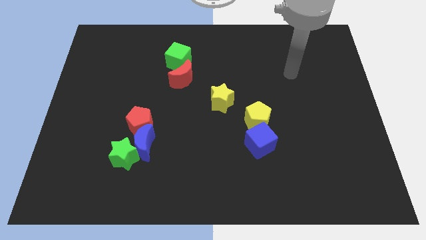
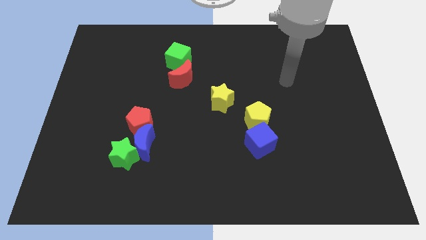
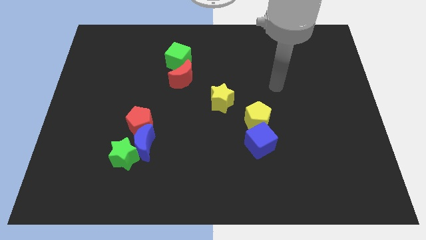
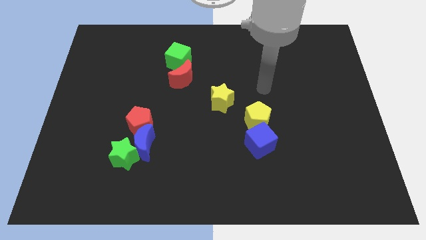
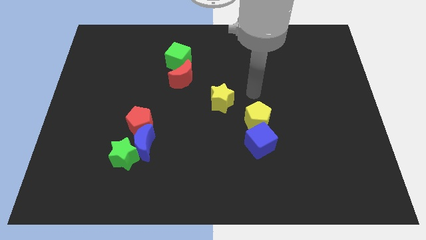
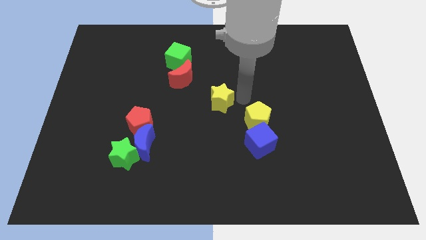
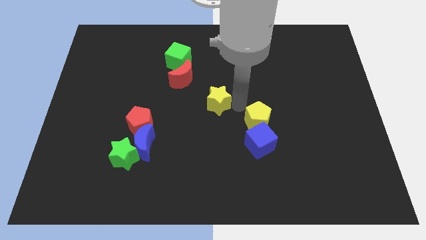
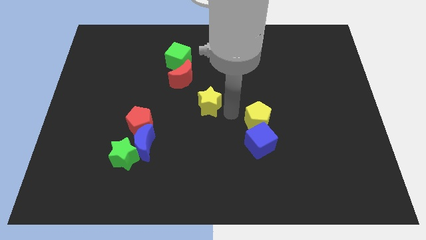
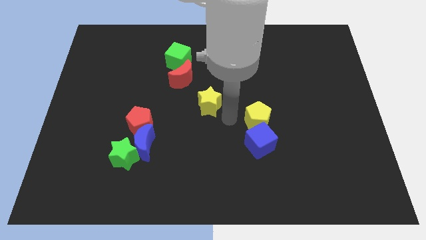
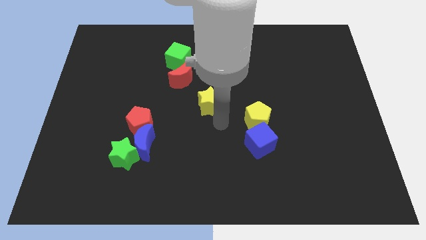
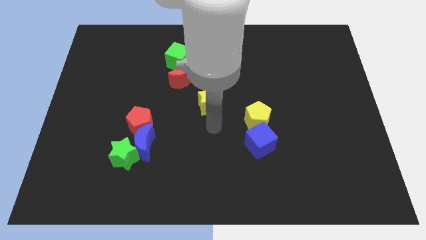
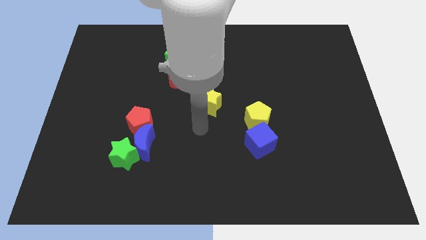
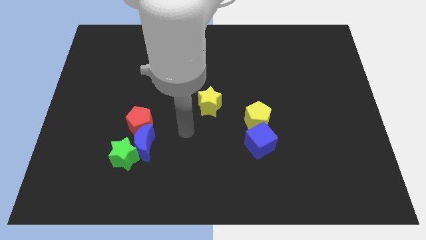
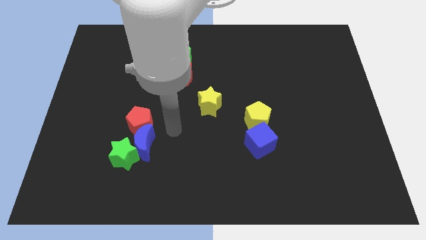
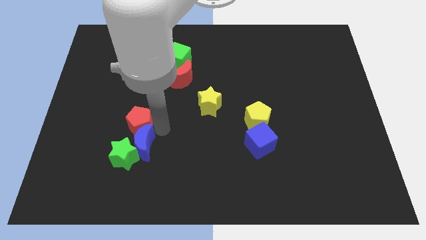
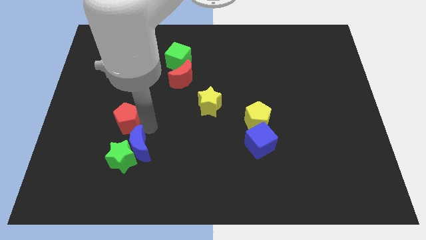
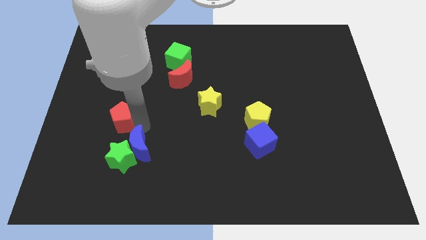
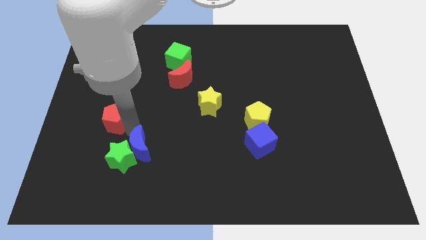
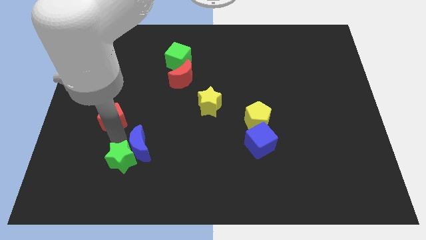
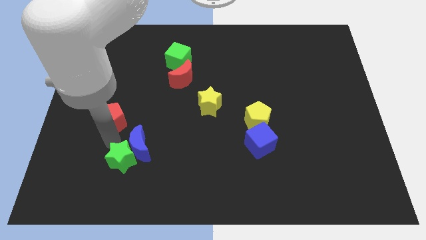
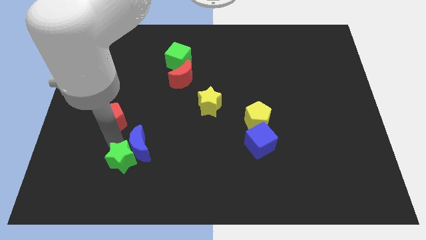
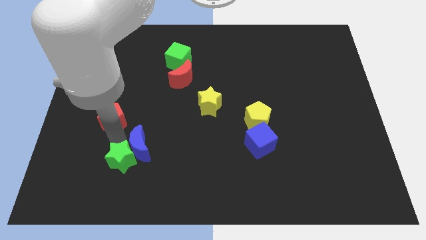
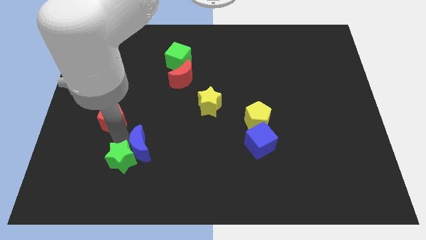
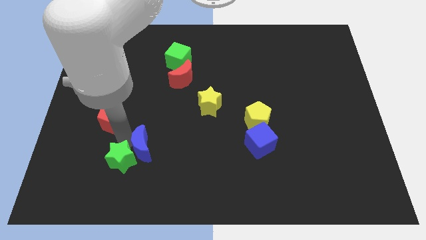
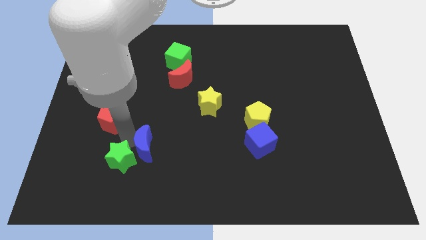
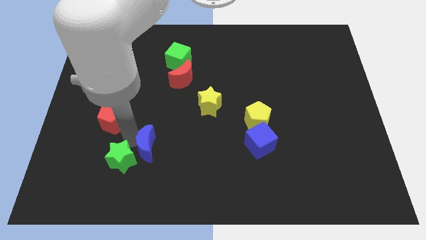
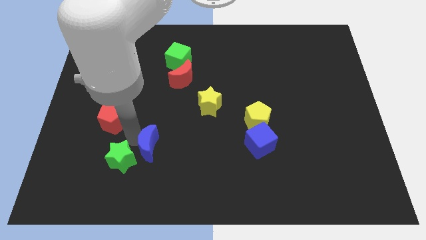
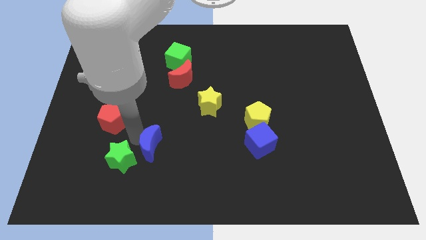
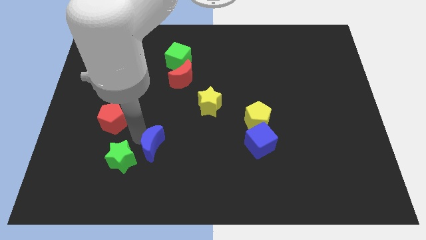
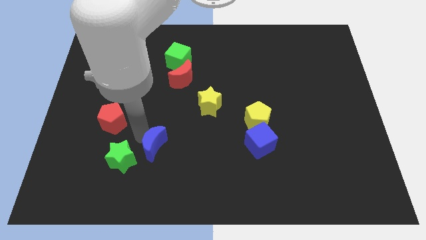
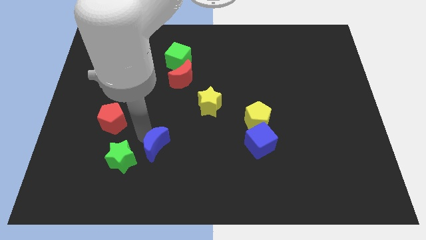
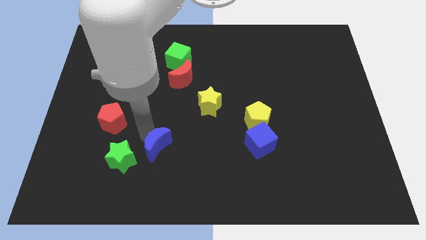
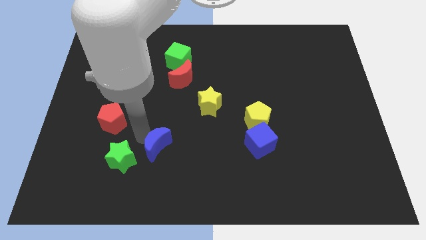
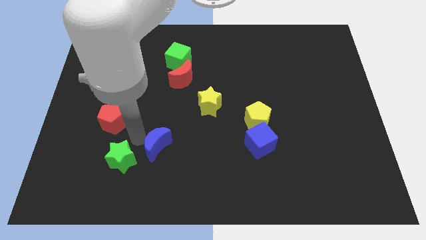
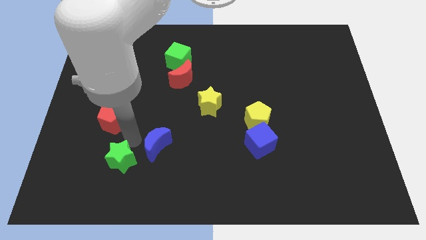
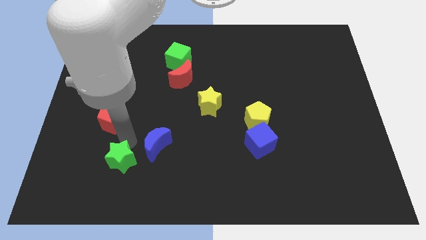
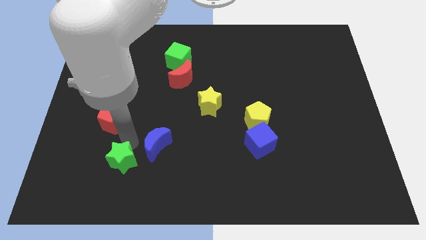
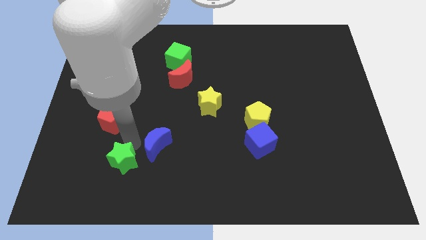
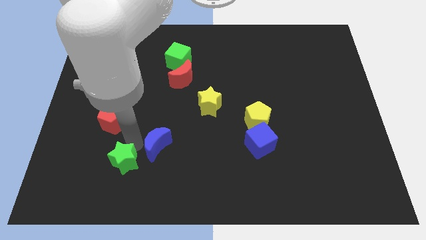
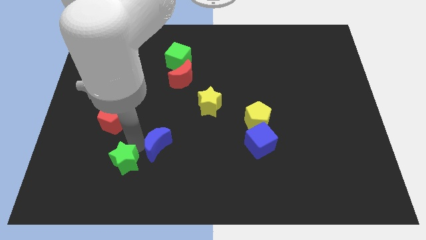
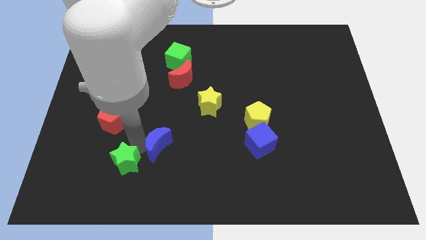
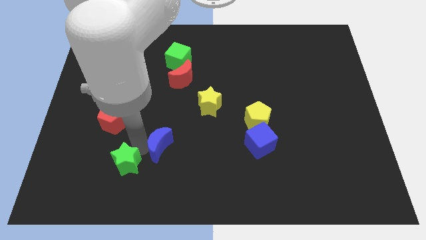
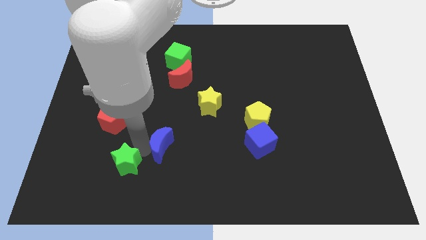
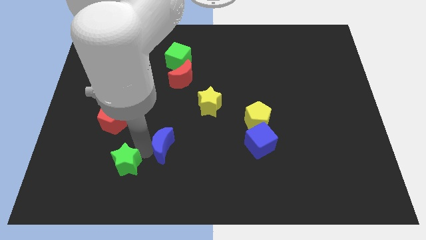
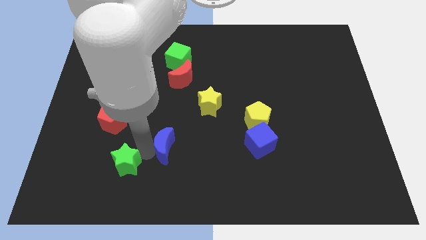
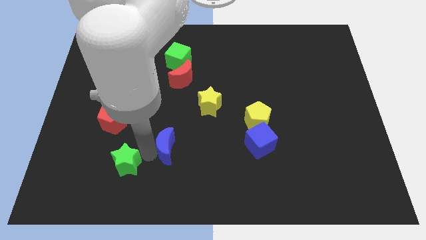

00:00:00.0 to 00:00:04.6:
separate the blue moon from the green star and red pentagon

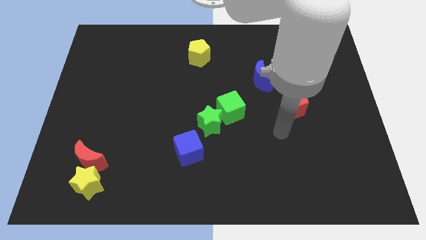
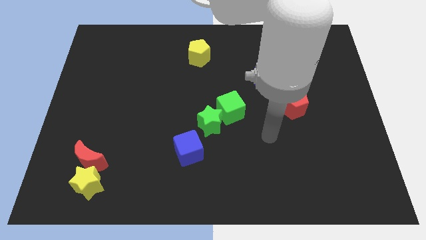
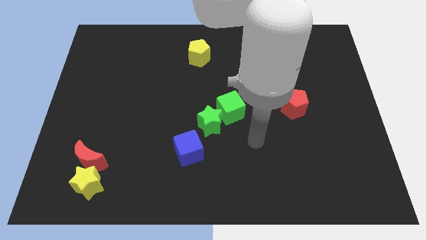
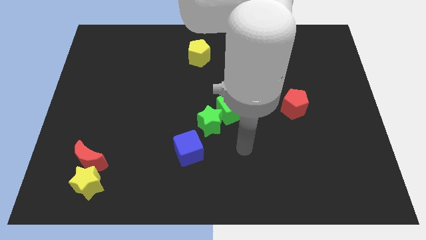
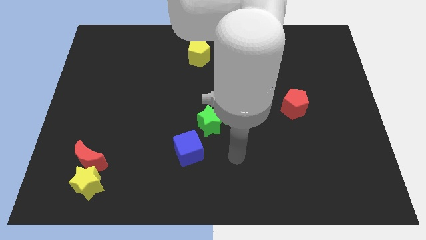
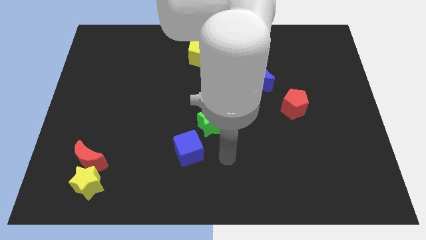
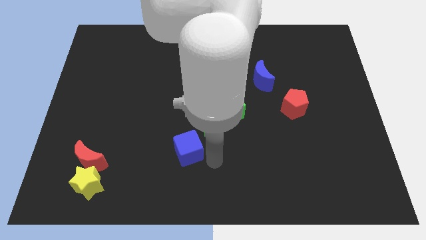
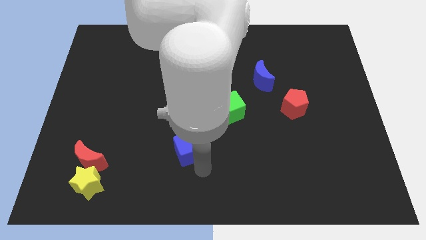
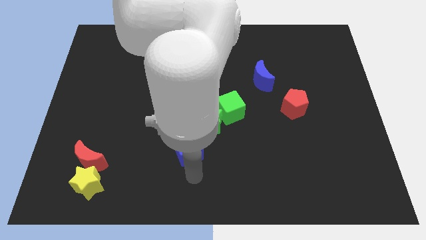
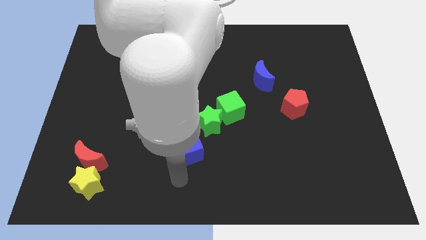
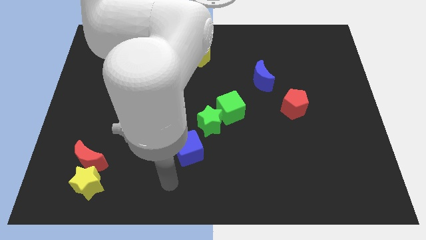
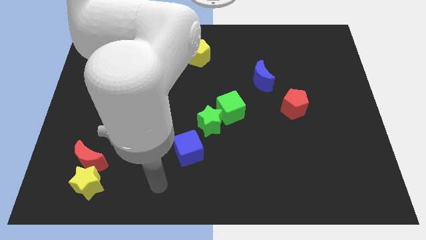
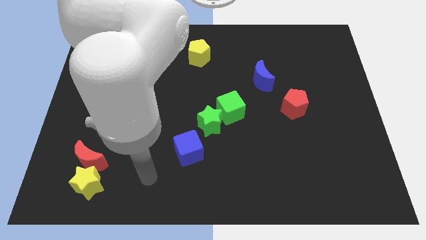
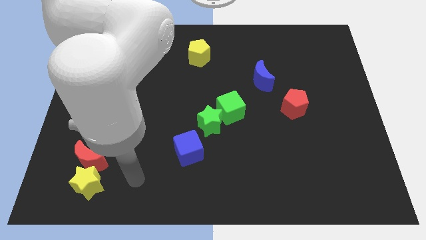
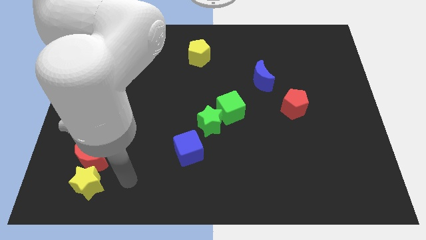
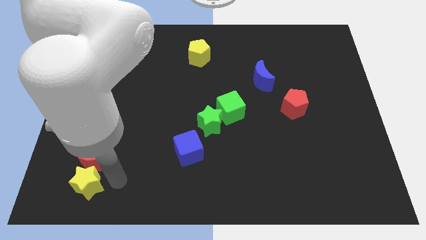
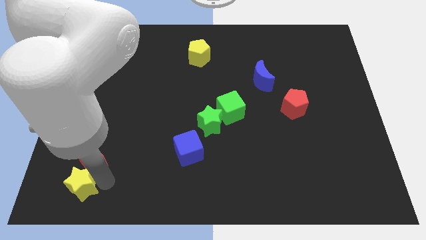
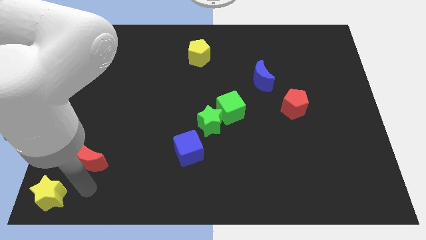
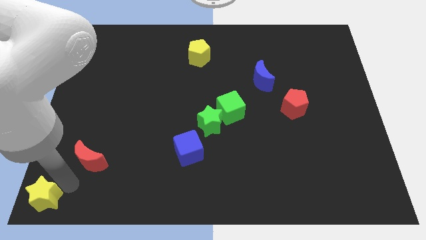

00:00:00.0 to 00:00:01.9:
move the red moon away from the yellow star

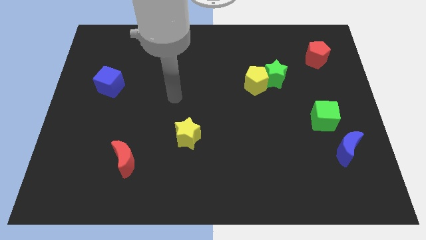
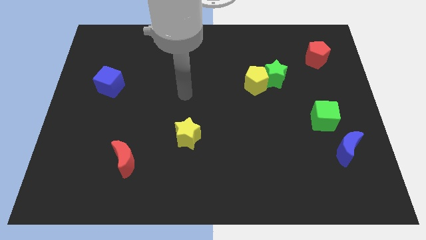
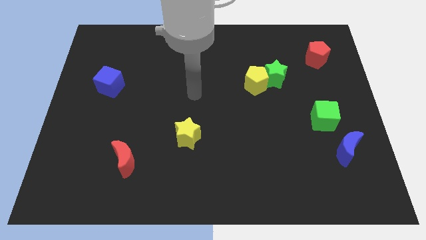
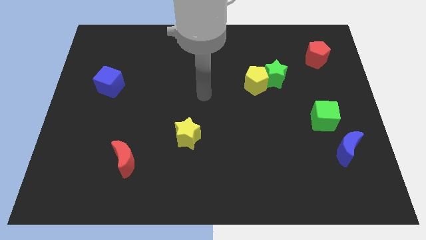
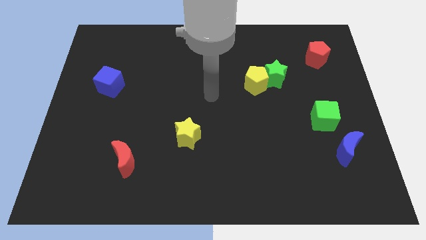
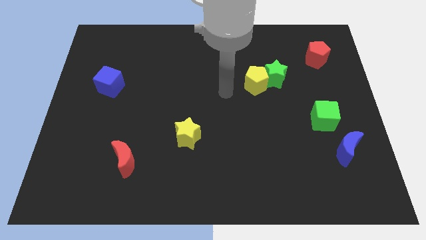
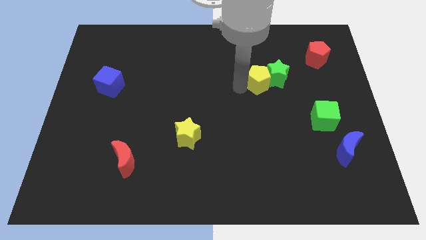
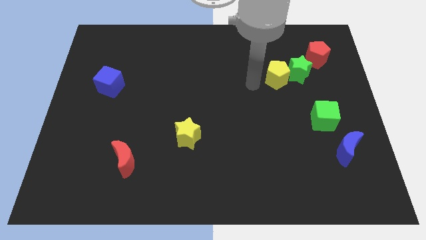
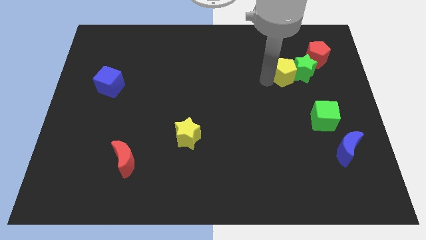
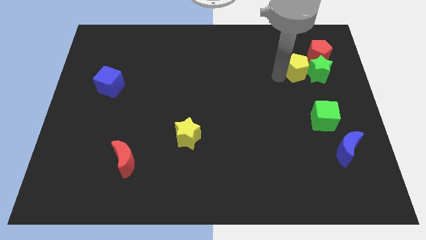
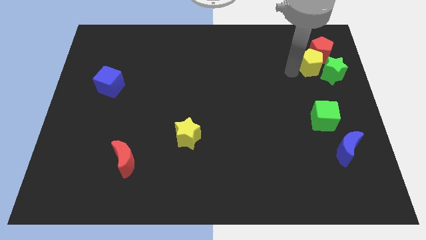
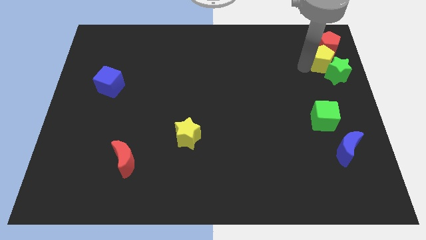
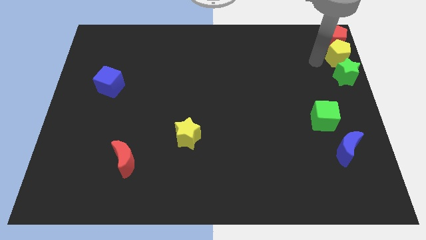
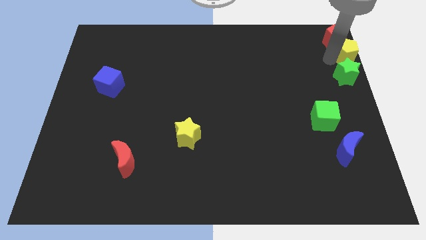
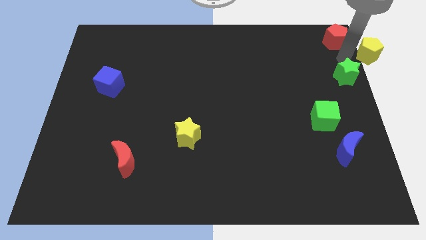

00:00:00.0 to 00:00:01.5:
separate the green star from the yellow pentagon

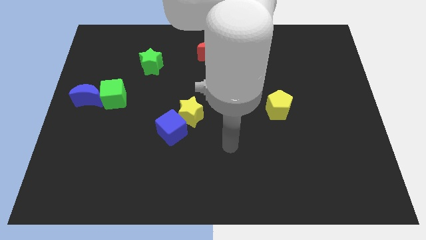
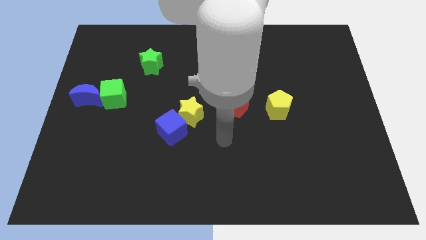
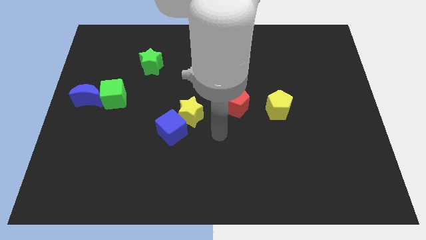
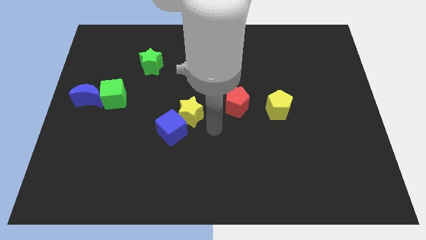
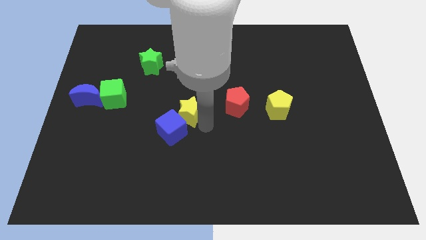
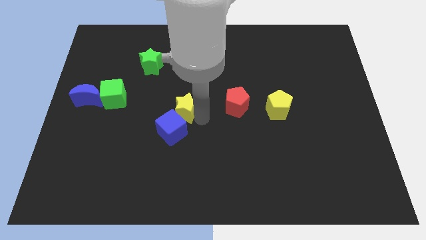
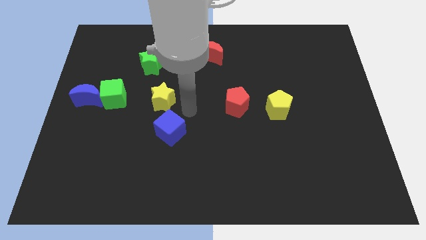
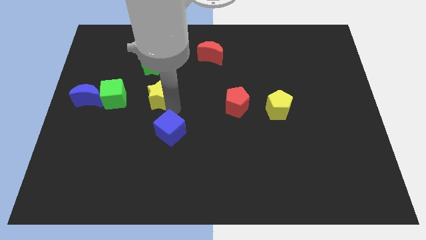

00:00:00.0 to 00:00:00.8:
move the blue cube away from the yellow star

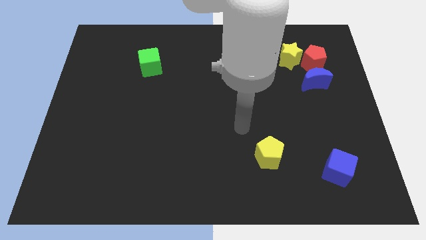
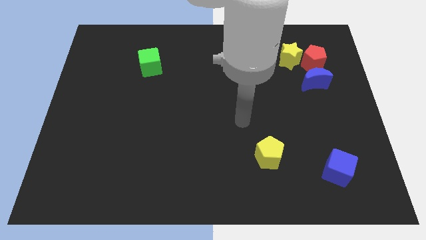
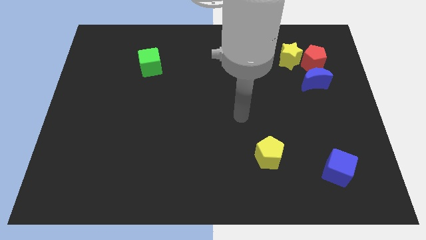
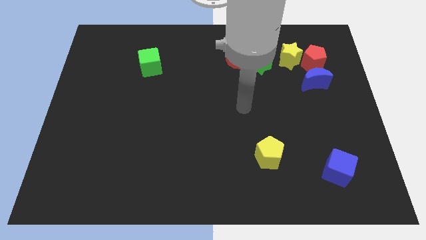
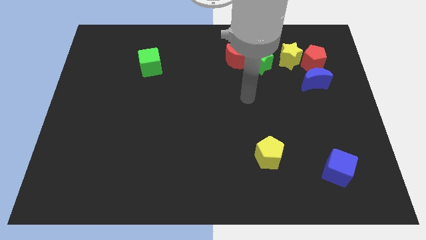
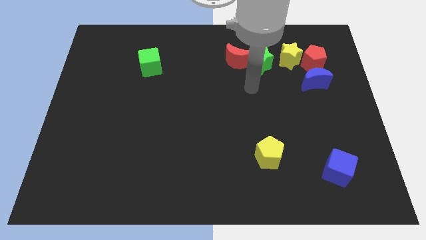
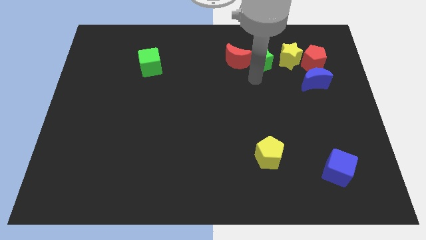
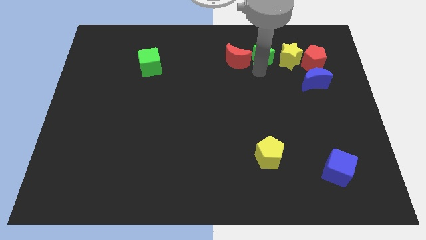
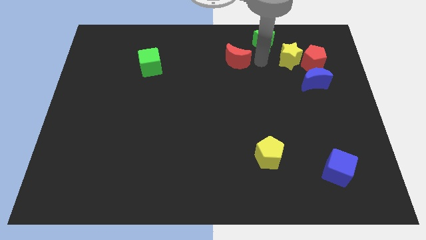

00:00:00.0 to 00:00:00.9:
separate the red moon from the green star
